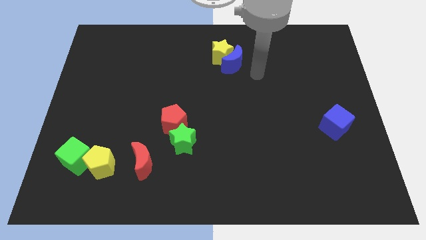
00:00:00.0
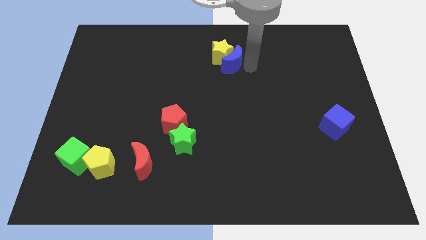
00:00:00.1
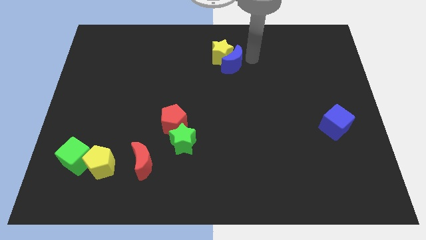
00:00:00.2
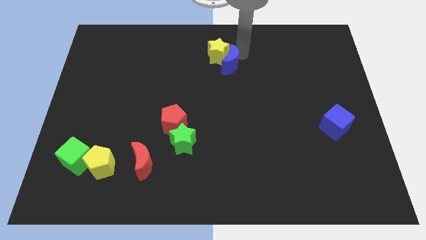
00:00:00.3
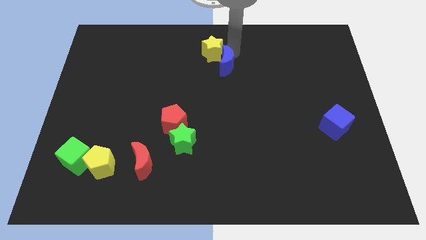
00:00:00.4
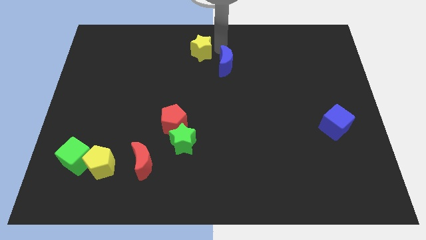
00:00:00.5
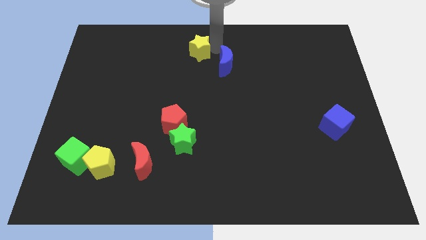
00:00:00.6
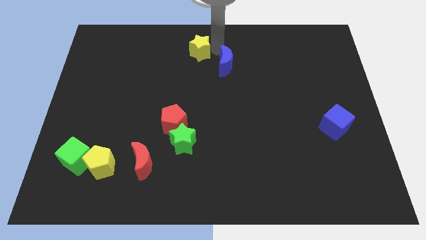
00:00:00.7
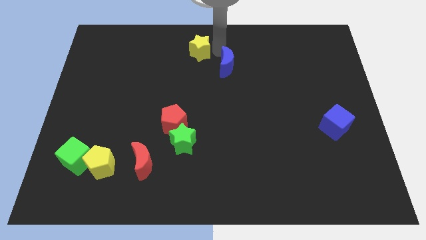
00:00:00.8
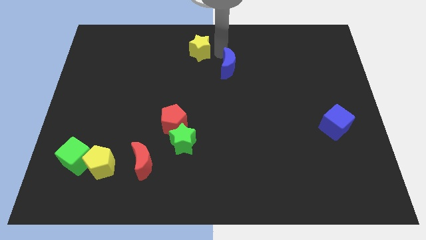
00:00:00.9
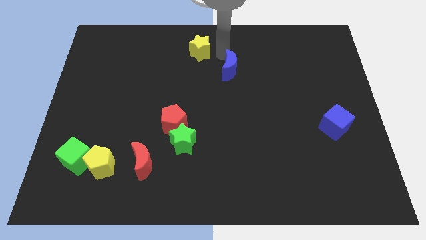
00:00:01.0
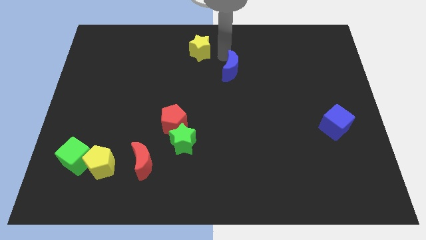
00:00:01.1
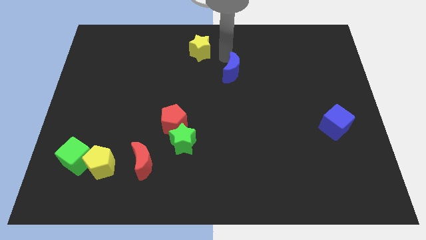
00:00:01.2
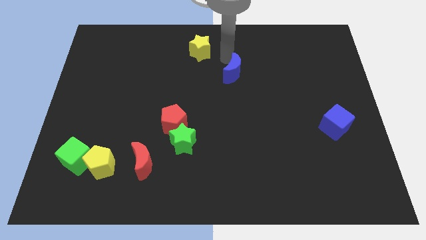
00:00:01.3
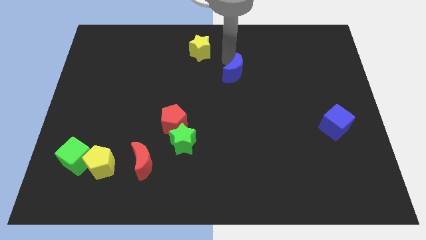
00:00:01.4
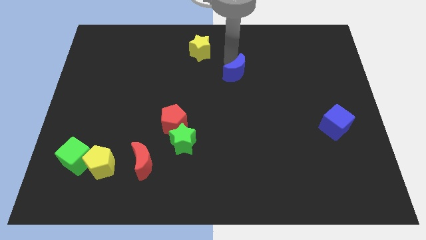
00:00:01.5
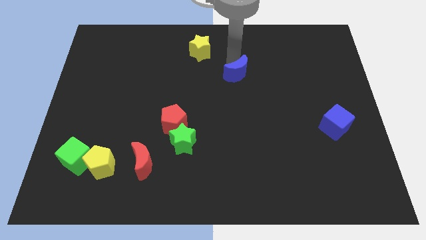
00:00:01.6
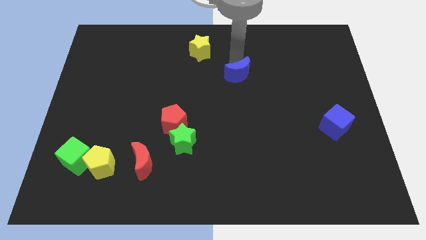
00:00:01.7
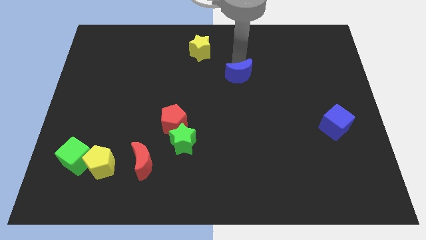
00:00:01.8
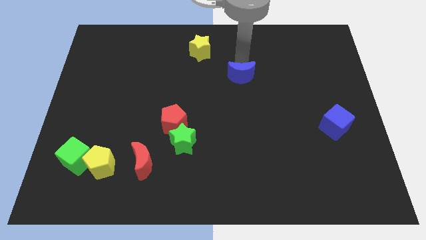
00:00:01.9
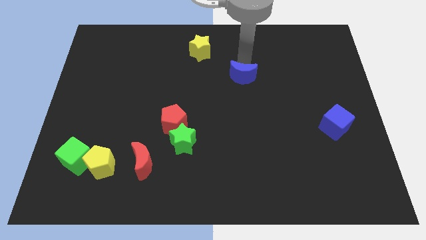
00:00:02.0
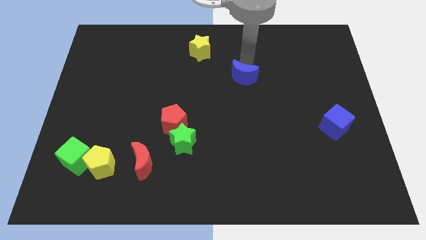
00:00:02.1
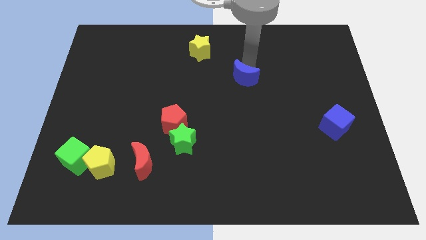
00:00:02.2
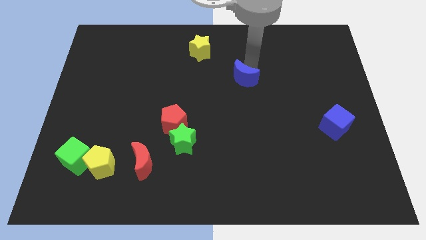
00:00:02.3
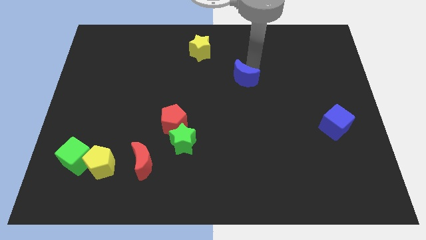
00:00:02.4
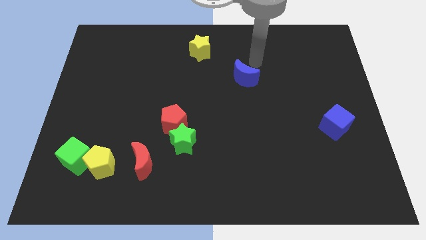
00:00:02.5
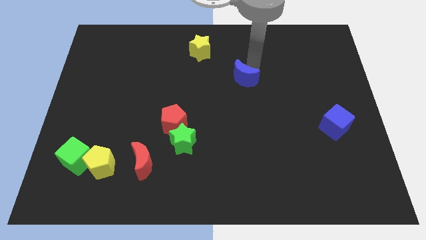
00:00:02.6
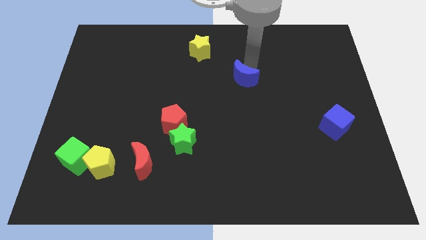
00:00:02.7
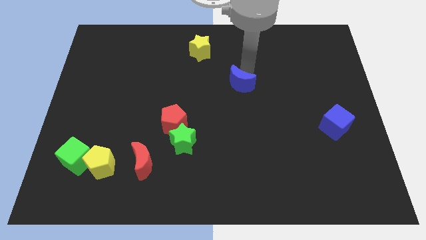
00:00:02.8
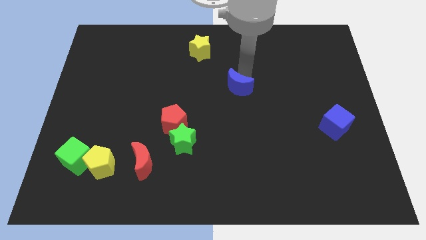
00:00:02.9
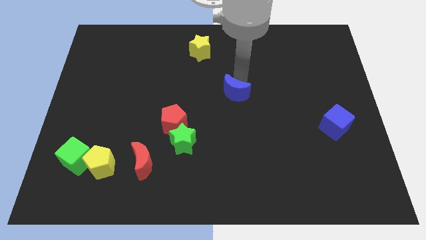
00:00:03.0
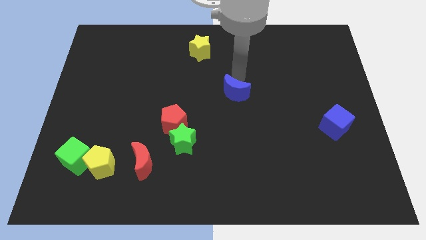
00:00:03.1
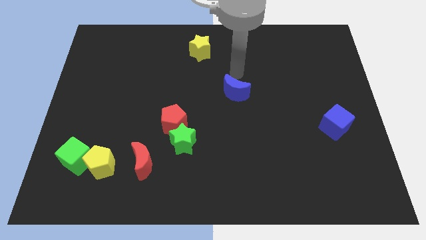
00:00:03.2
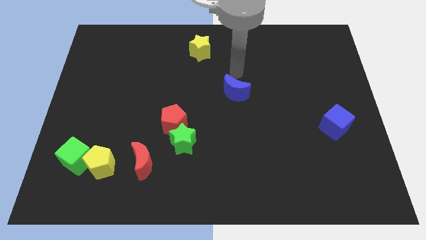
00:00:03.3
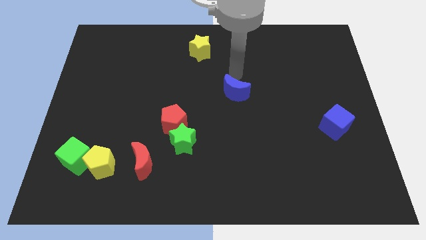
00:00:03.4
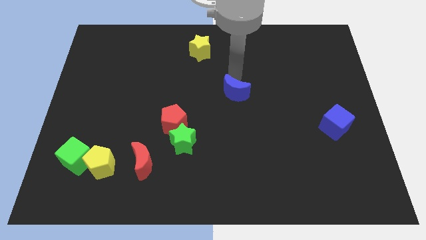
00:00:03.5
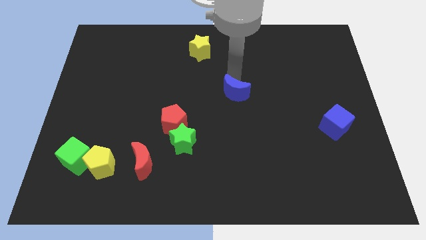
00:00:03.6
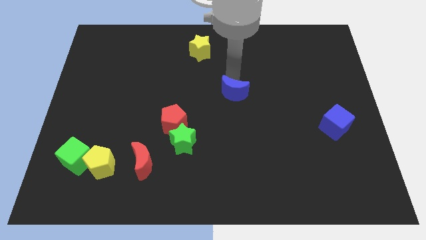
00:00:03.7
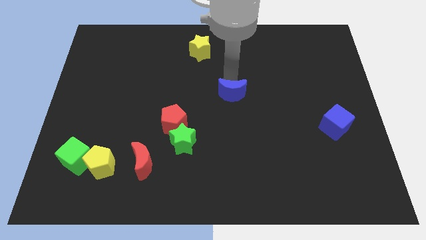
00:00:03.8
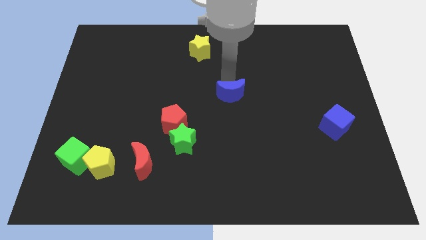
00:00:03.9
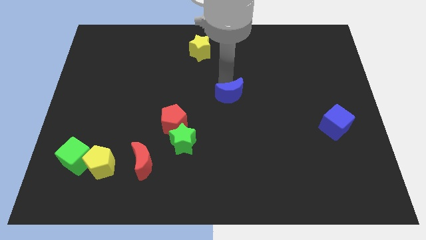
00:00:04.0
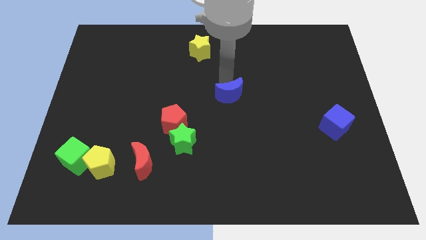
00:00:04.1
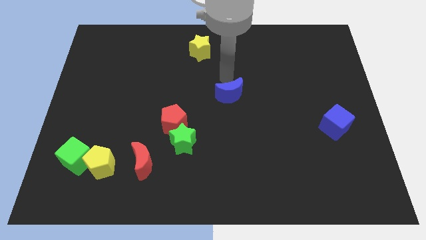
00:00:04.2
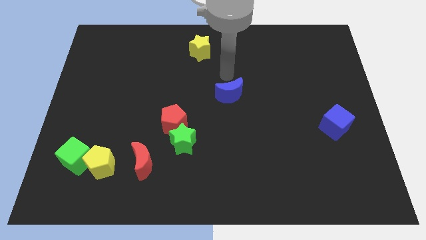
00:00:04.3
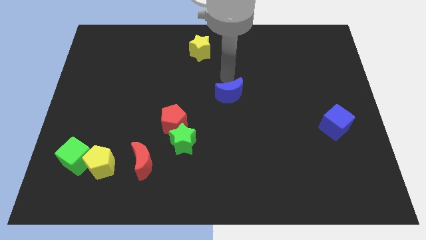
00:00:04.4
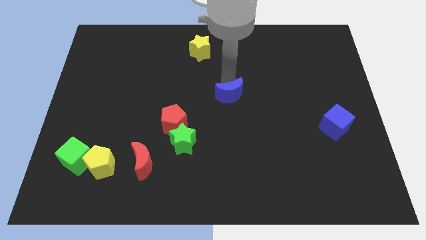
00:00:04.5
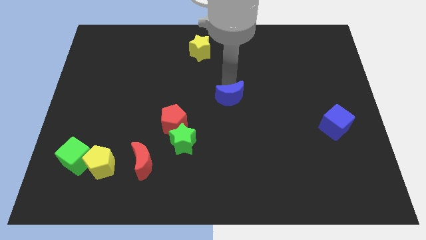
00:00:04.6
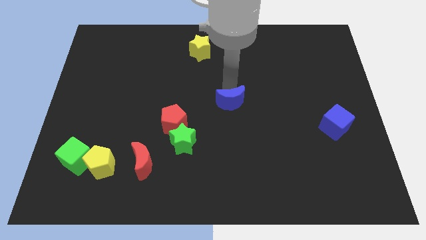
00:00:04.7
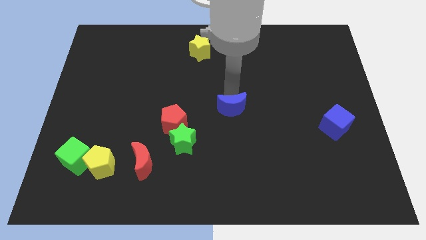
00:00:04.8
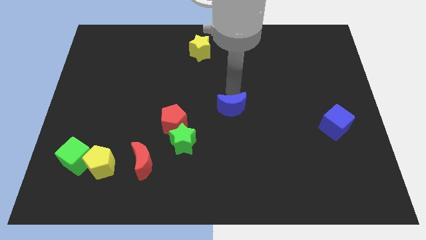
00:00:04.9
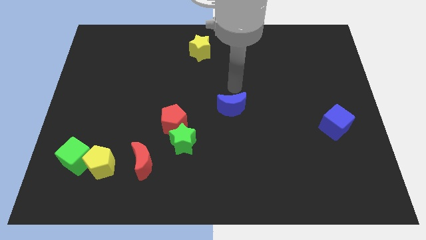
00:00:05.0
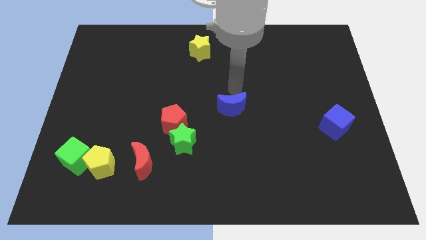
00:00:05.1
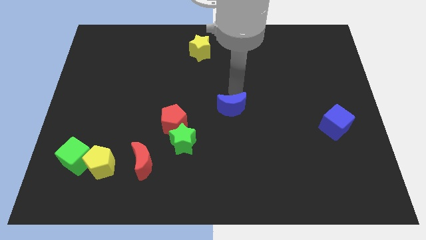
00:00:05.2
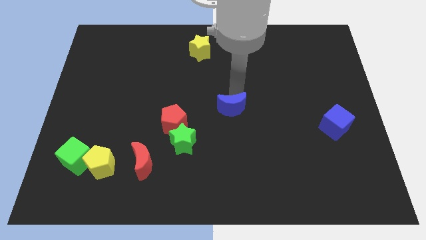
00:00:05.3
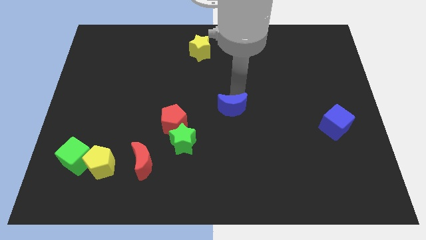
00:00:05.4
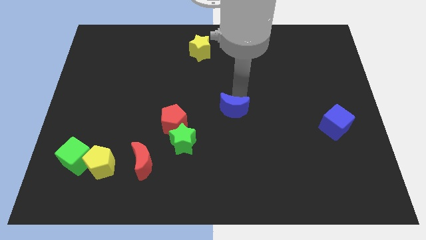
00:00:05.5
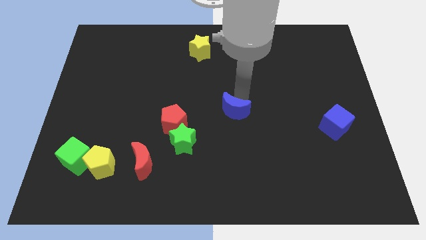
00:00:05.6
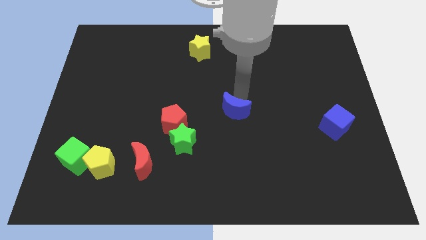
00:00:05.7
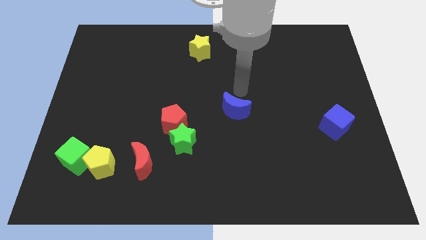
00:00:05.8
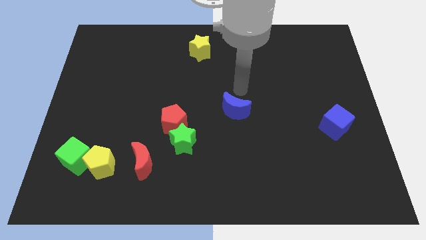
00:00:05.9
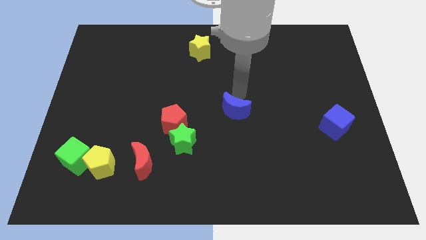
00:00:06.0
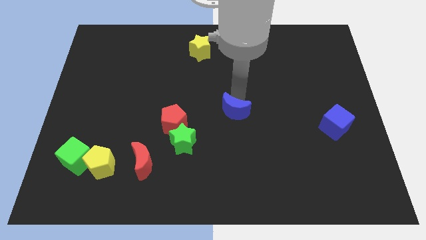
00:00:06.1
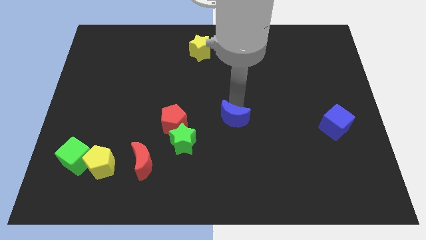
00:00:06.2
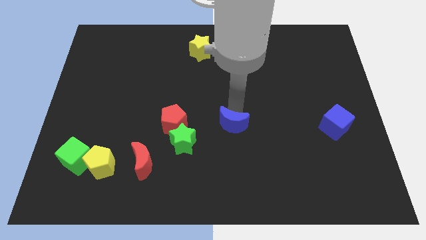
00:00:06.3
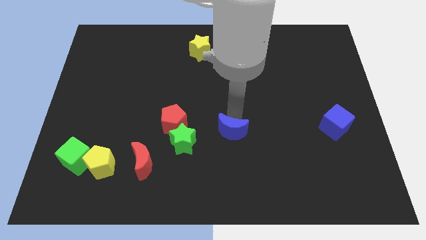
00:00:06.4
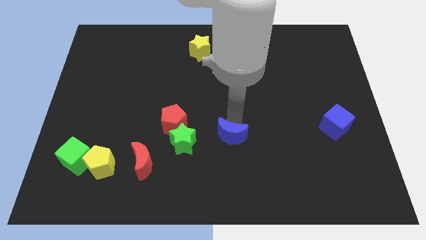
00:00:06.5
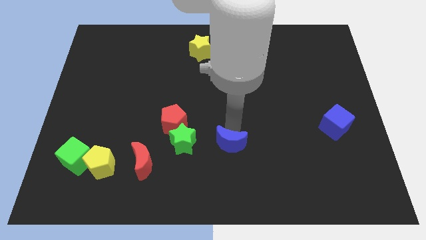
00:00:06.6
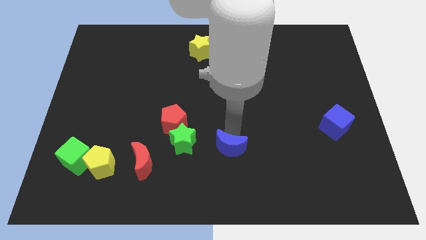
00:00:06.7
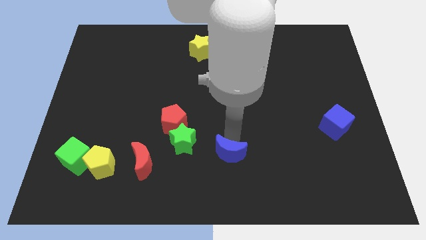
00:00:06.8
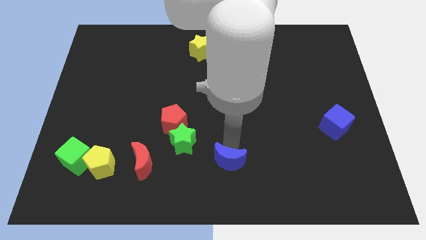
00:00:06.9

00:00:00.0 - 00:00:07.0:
push the blue moon to the bottom
